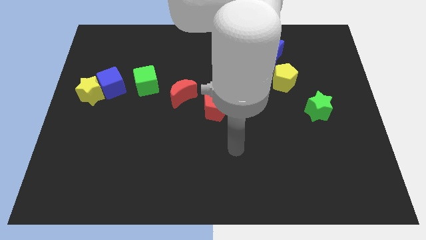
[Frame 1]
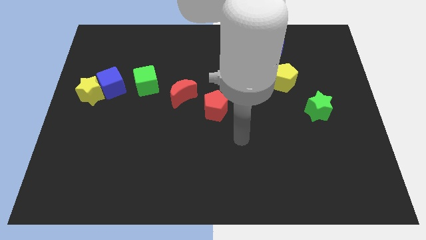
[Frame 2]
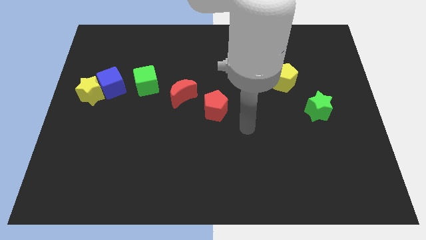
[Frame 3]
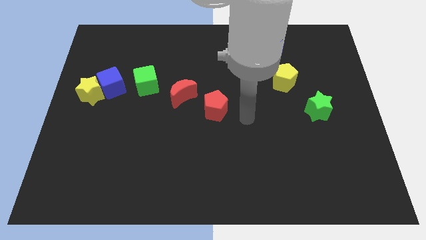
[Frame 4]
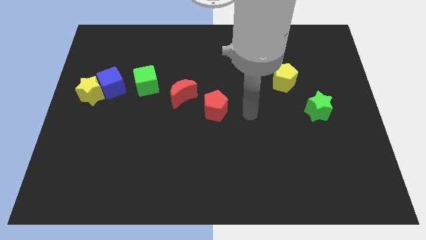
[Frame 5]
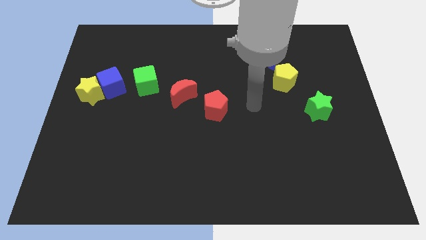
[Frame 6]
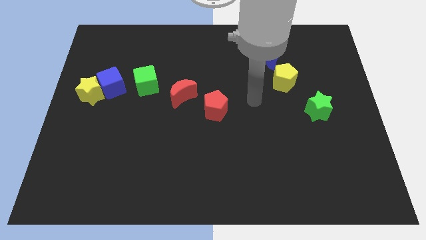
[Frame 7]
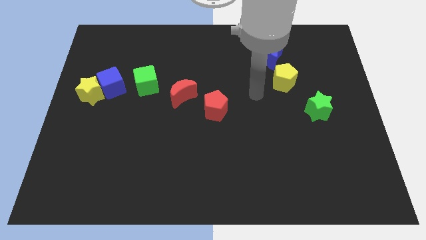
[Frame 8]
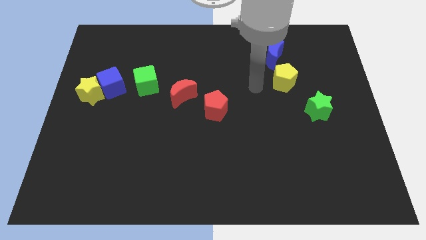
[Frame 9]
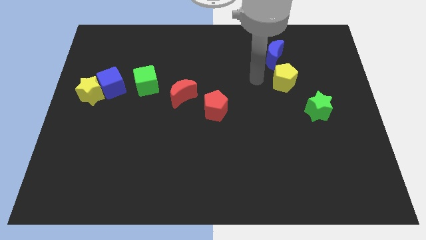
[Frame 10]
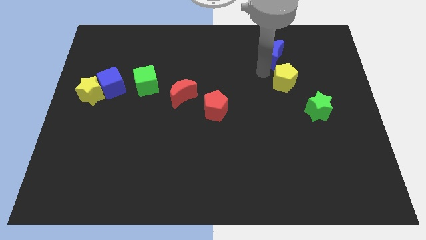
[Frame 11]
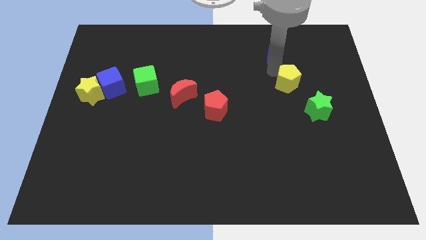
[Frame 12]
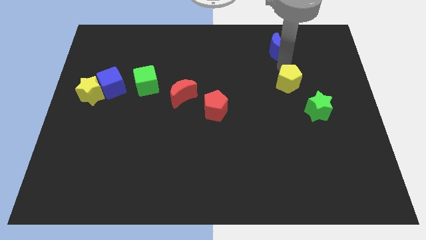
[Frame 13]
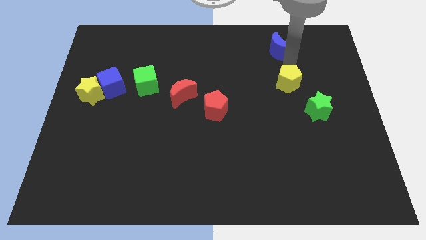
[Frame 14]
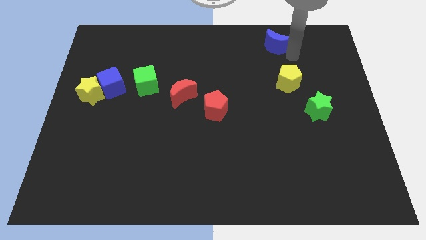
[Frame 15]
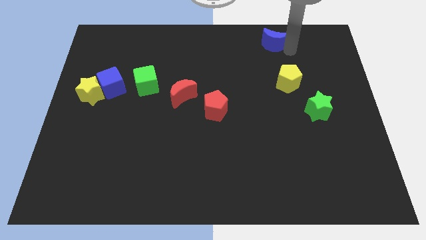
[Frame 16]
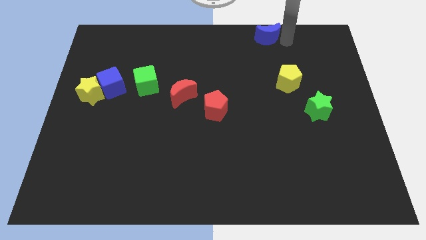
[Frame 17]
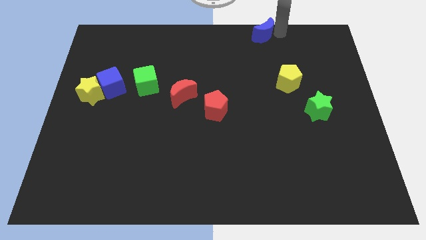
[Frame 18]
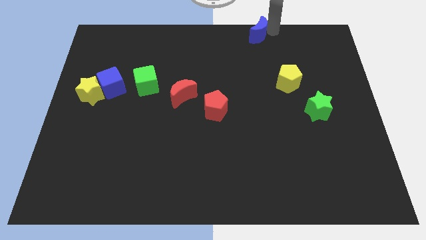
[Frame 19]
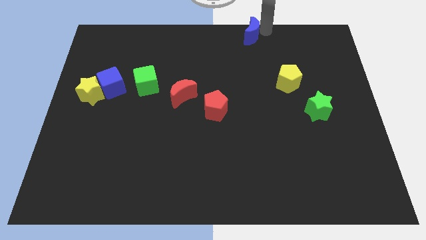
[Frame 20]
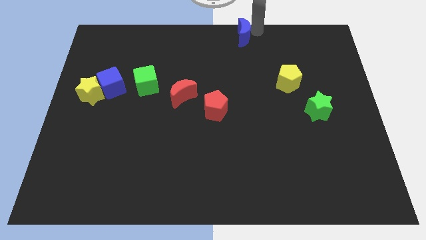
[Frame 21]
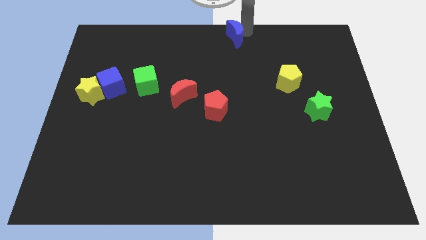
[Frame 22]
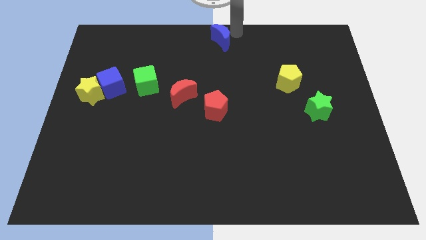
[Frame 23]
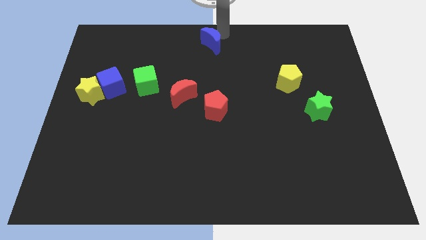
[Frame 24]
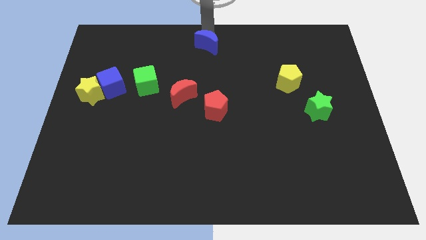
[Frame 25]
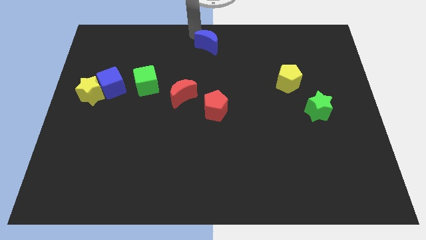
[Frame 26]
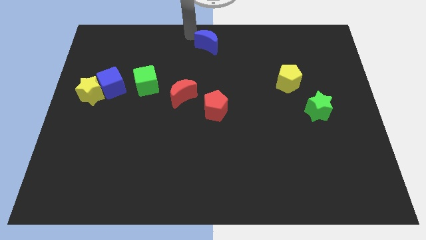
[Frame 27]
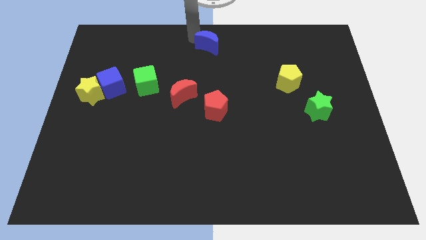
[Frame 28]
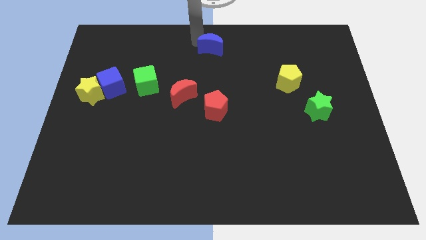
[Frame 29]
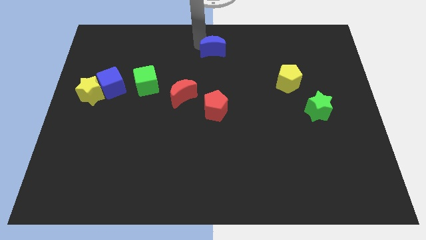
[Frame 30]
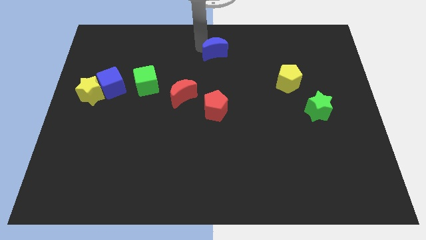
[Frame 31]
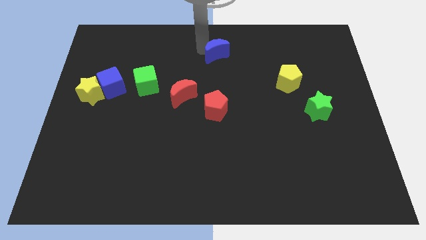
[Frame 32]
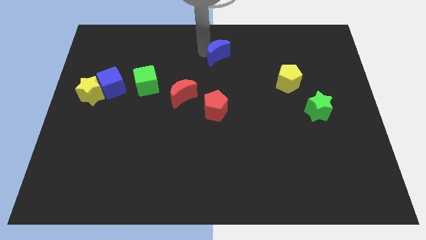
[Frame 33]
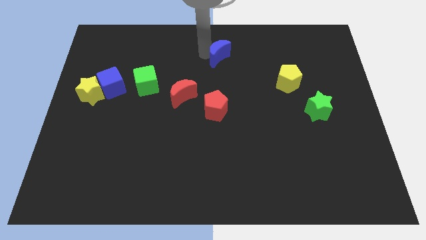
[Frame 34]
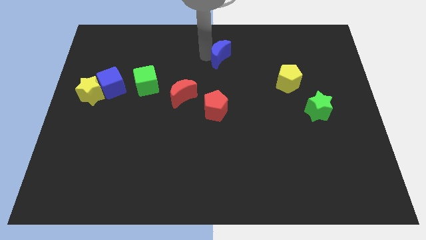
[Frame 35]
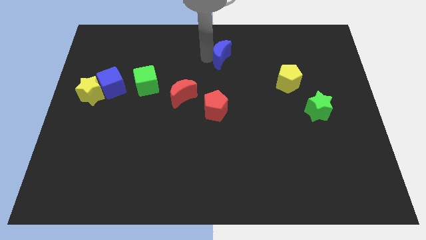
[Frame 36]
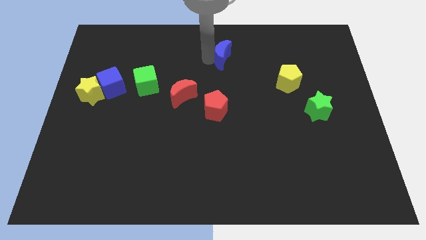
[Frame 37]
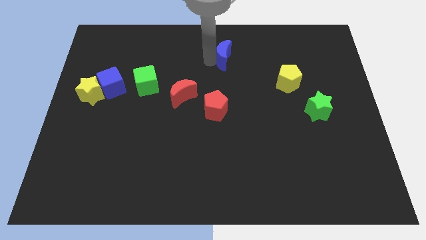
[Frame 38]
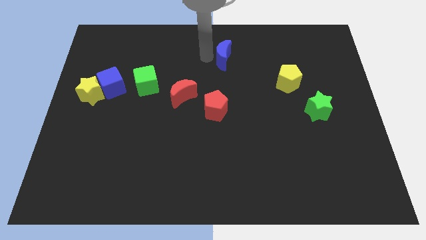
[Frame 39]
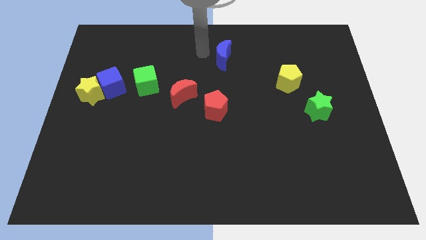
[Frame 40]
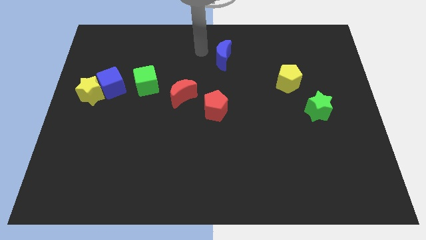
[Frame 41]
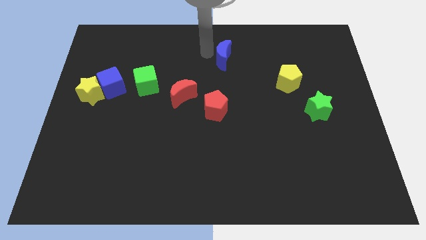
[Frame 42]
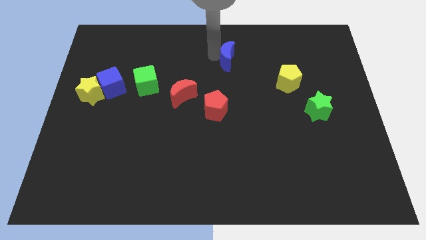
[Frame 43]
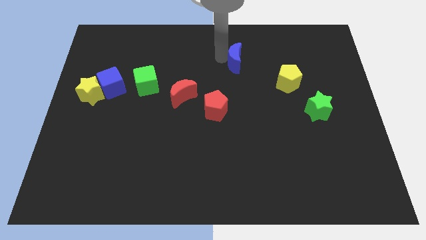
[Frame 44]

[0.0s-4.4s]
slightly push the blue moon down and left

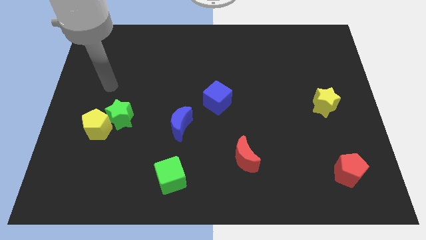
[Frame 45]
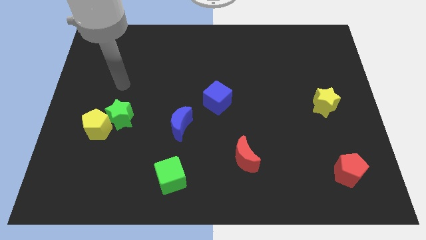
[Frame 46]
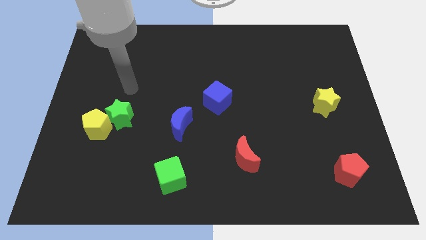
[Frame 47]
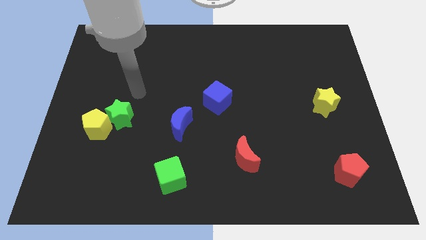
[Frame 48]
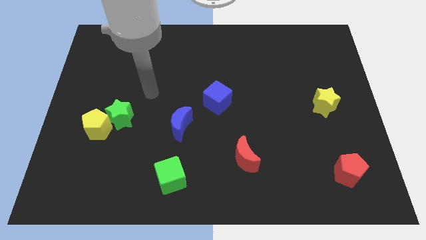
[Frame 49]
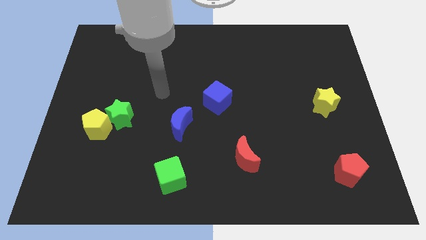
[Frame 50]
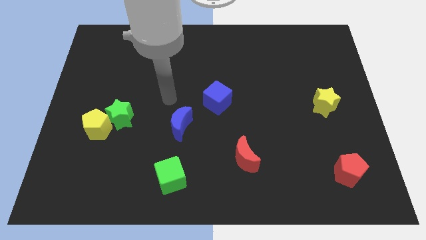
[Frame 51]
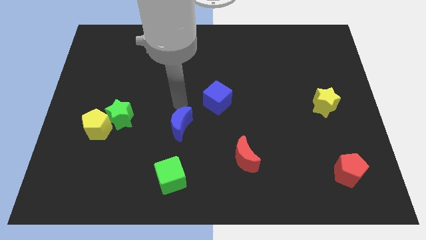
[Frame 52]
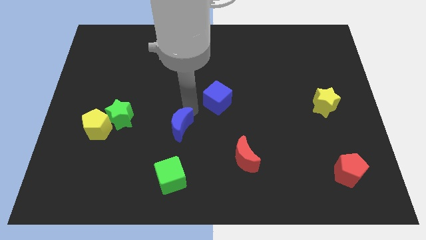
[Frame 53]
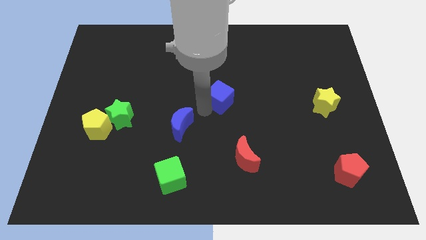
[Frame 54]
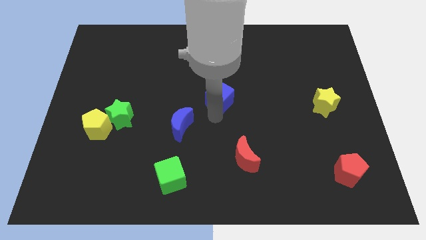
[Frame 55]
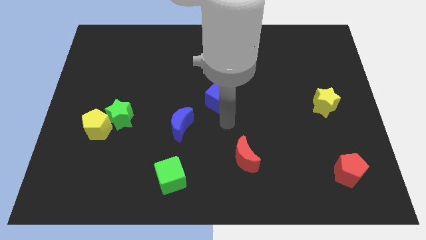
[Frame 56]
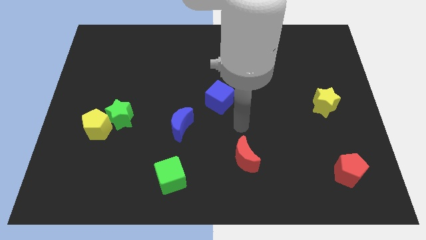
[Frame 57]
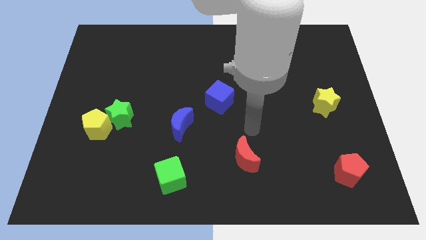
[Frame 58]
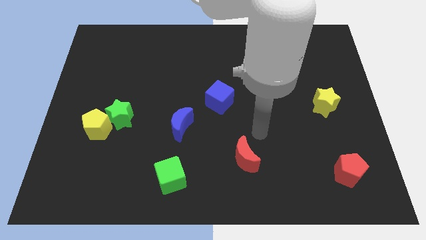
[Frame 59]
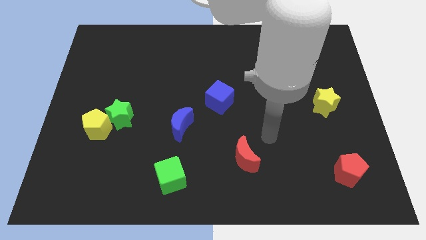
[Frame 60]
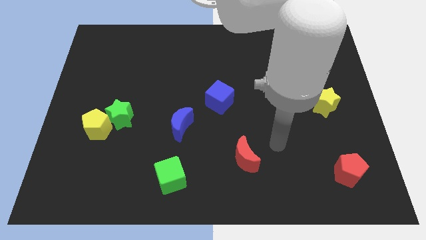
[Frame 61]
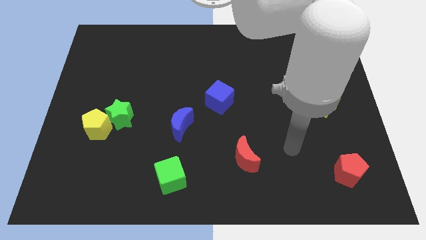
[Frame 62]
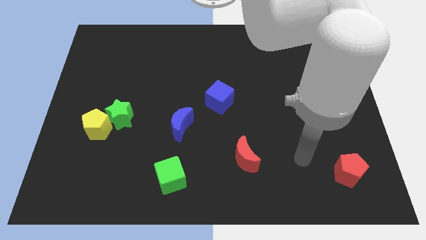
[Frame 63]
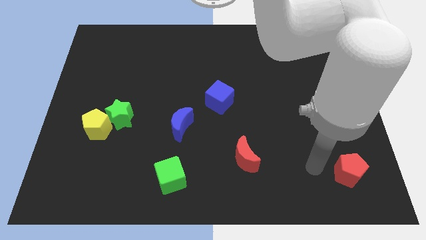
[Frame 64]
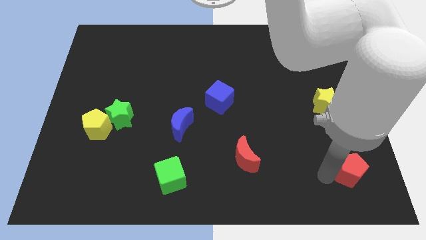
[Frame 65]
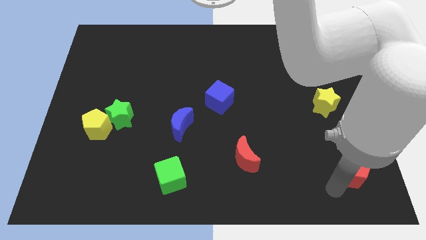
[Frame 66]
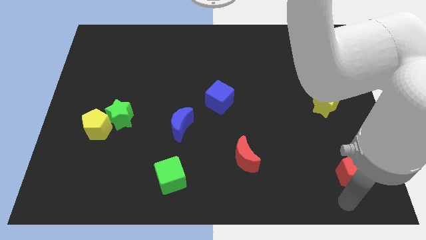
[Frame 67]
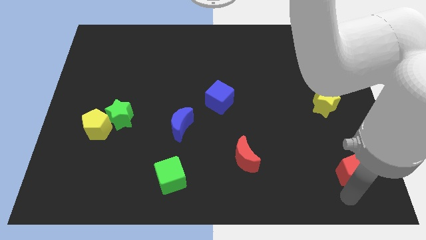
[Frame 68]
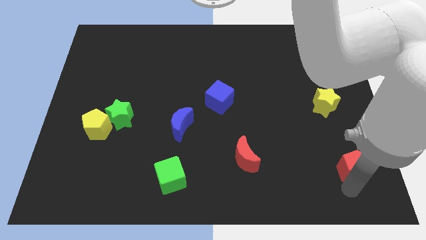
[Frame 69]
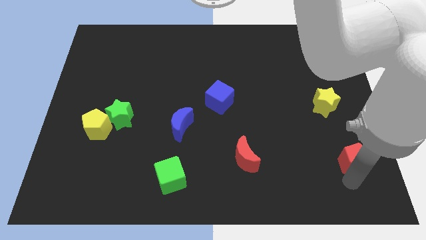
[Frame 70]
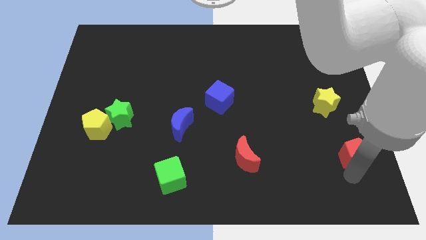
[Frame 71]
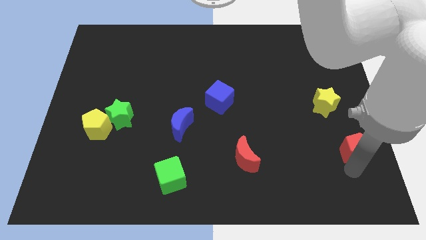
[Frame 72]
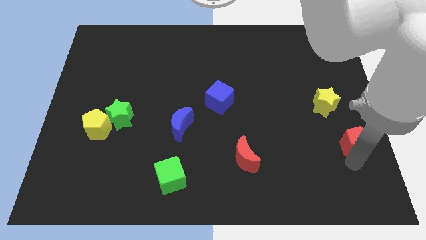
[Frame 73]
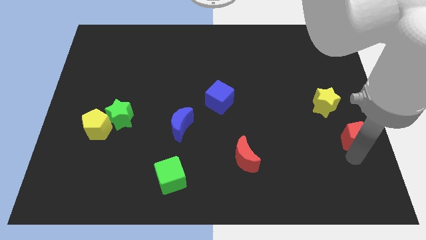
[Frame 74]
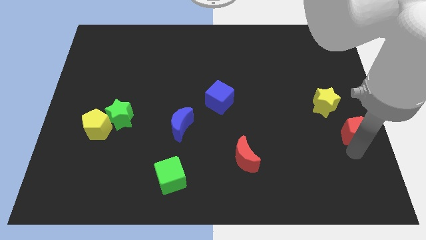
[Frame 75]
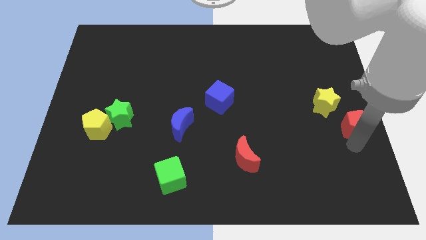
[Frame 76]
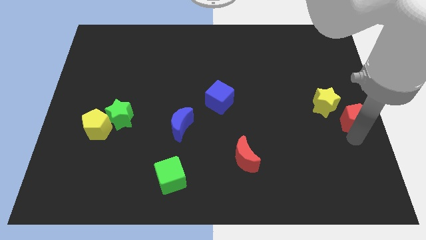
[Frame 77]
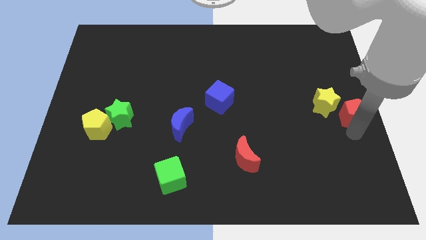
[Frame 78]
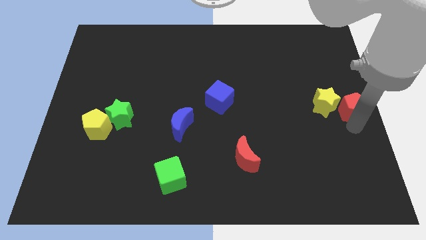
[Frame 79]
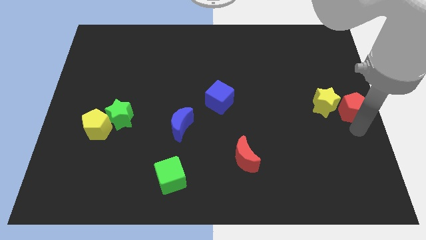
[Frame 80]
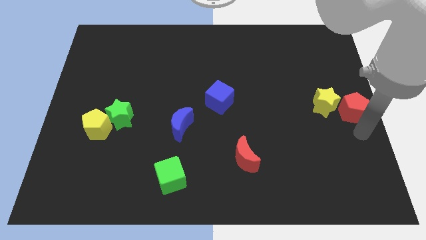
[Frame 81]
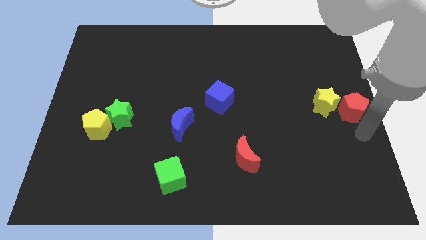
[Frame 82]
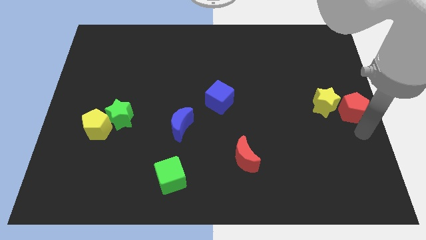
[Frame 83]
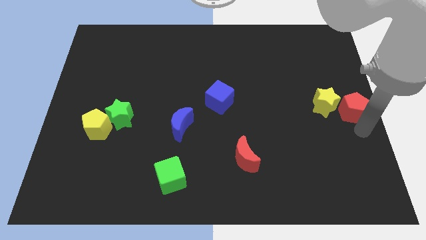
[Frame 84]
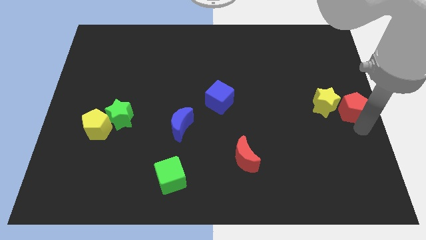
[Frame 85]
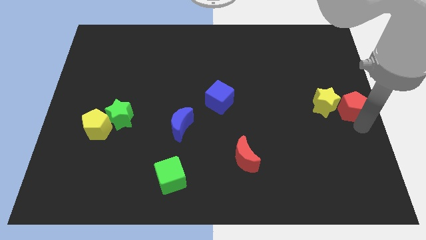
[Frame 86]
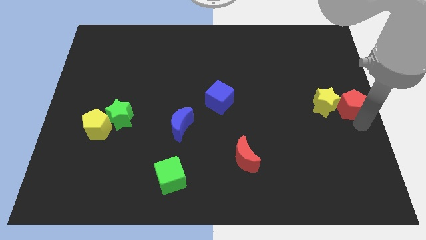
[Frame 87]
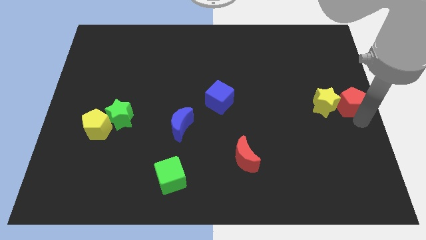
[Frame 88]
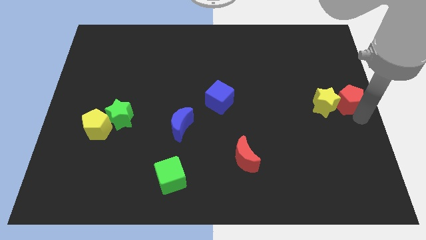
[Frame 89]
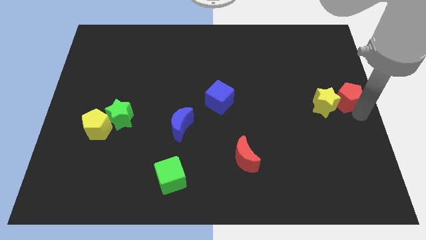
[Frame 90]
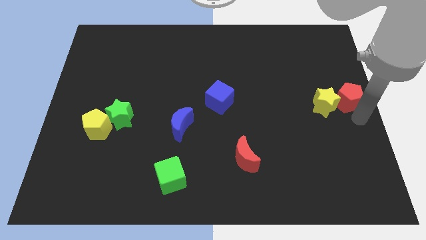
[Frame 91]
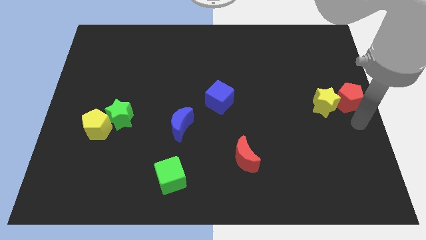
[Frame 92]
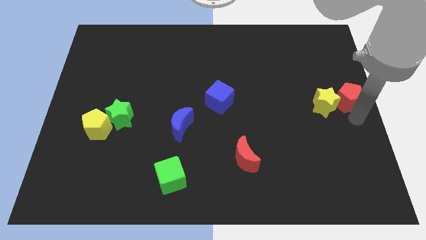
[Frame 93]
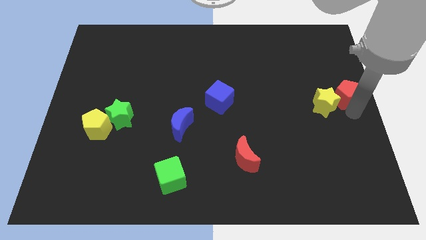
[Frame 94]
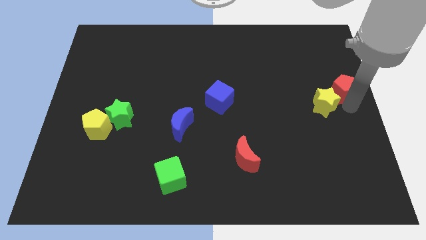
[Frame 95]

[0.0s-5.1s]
slide the red pentagon upwards
